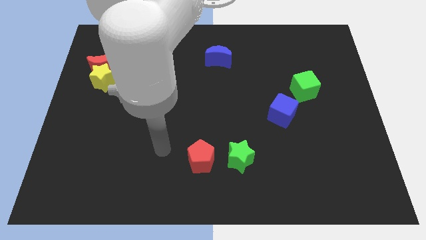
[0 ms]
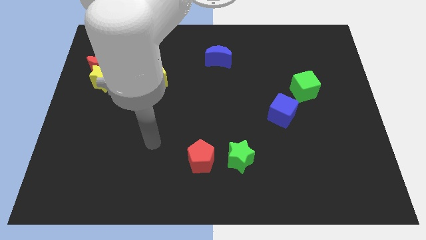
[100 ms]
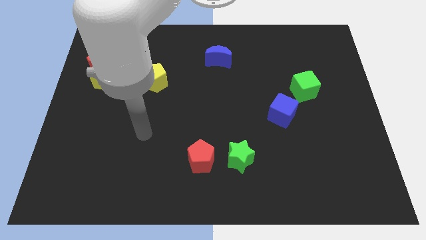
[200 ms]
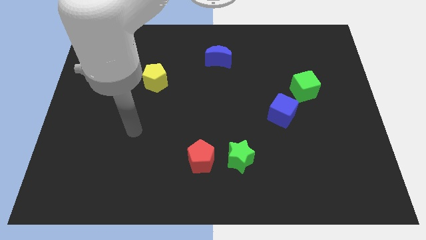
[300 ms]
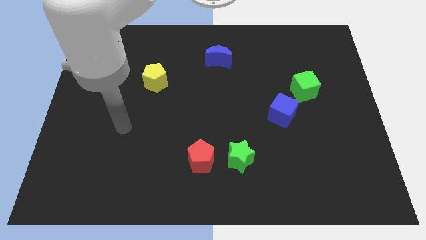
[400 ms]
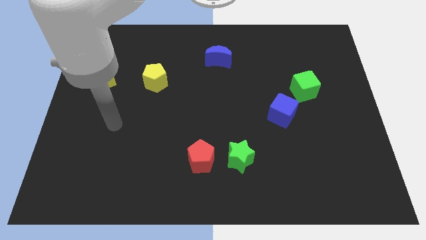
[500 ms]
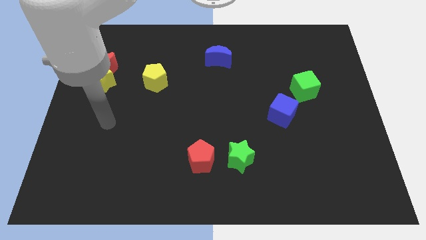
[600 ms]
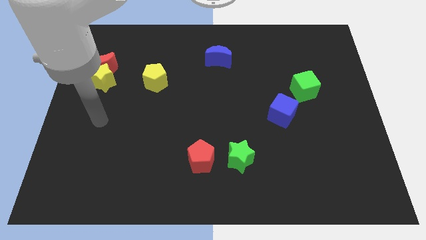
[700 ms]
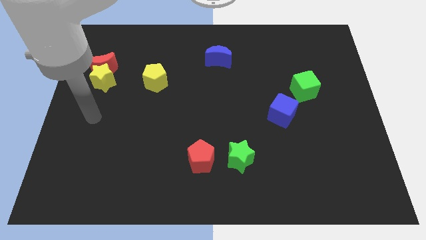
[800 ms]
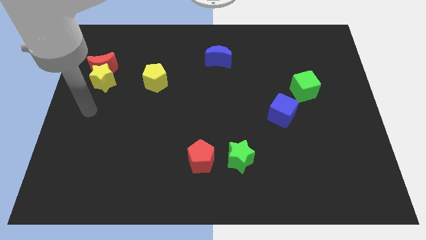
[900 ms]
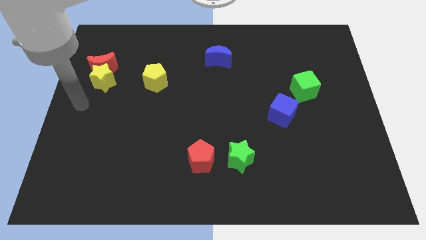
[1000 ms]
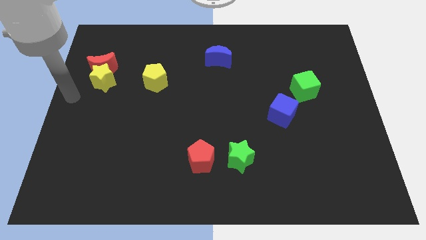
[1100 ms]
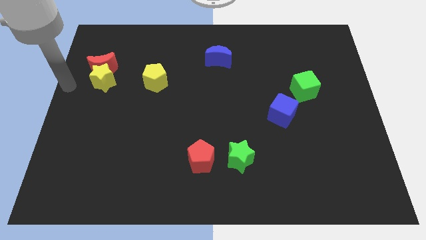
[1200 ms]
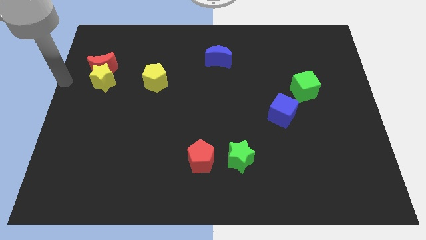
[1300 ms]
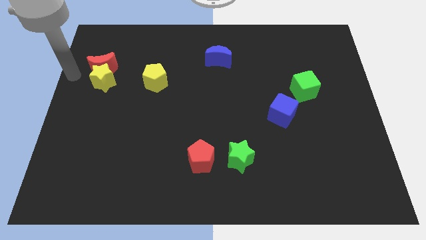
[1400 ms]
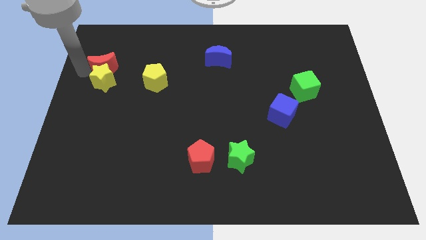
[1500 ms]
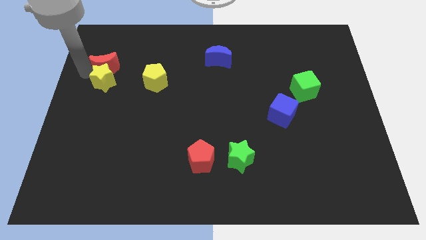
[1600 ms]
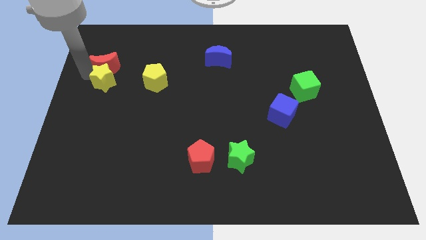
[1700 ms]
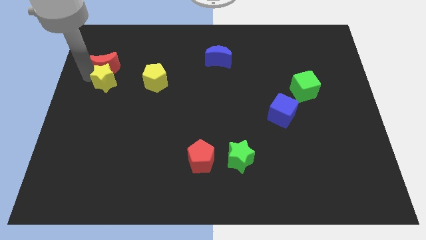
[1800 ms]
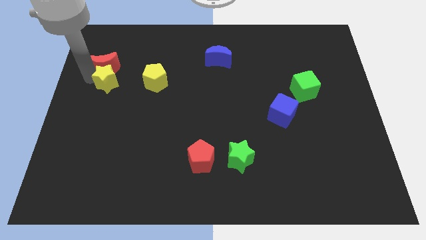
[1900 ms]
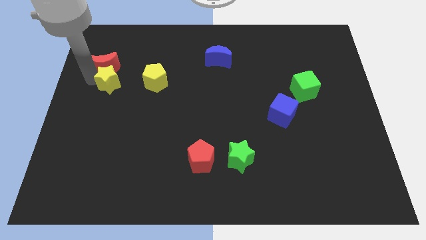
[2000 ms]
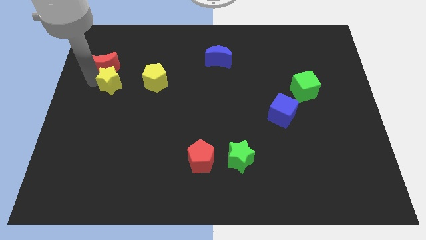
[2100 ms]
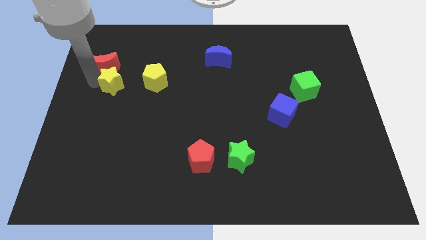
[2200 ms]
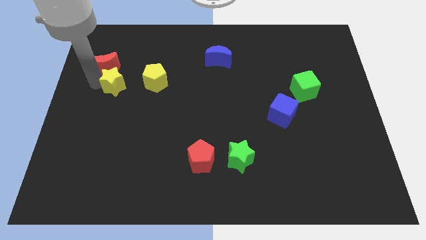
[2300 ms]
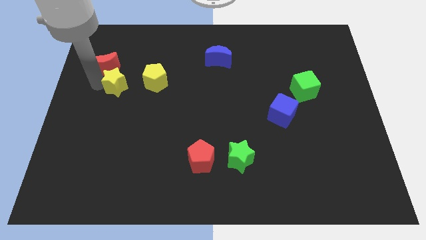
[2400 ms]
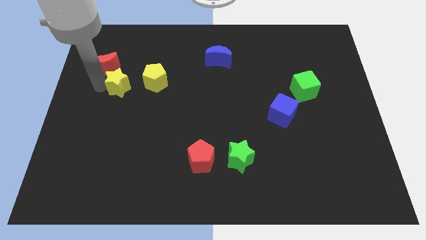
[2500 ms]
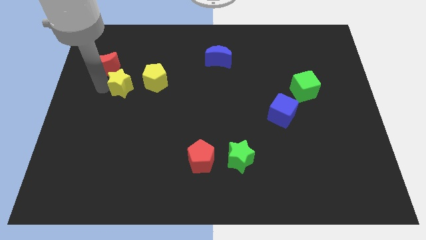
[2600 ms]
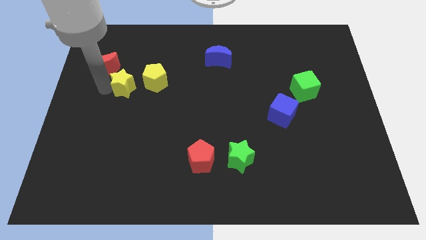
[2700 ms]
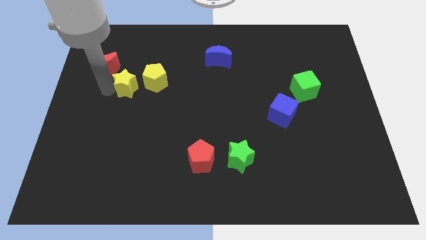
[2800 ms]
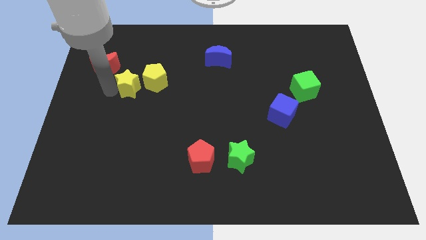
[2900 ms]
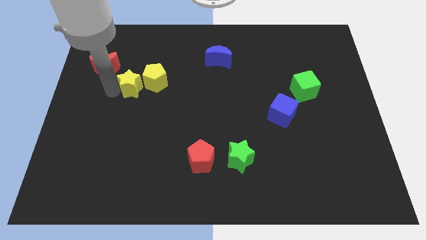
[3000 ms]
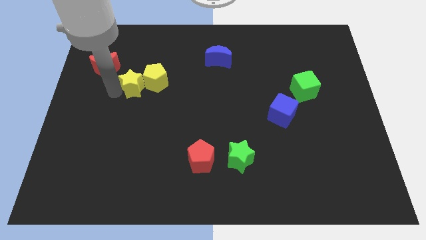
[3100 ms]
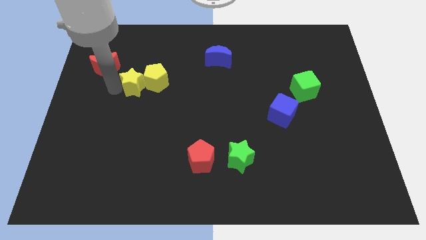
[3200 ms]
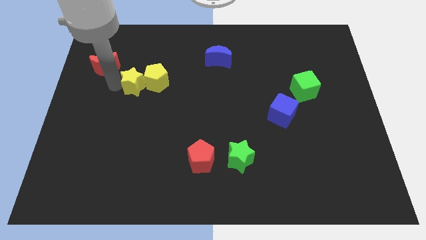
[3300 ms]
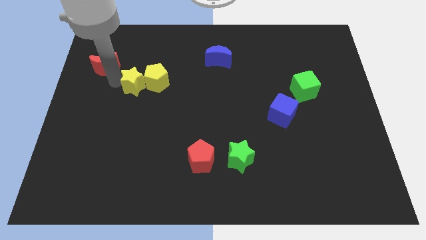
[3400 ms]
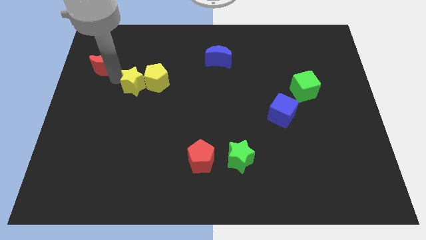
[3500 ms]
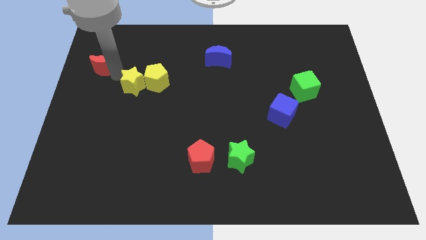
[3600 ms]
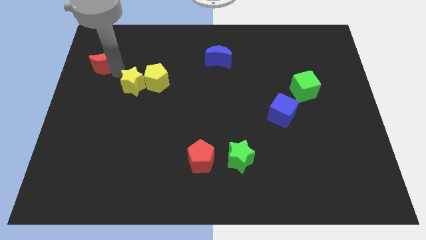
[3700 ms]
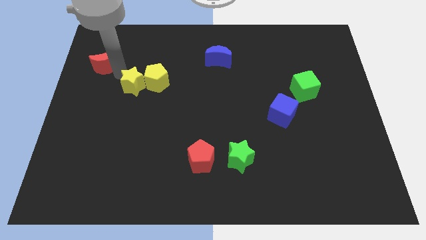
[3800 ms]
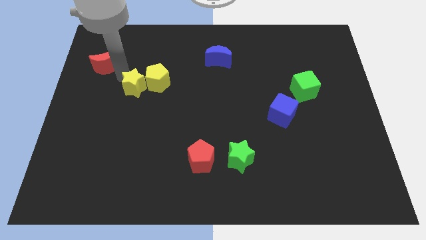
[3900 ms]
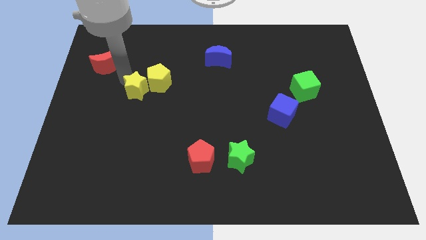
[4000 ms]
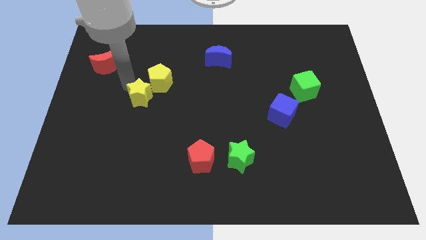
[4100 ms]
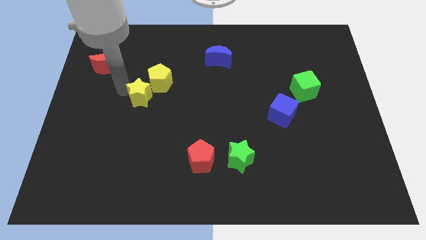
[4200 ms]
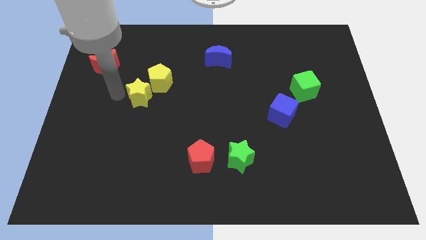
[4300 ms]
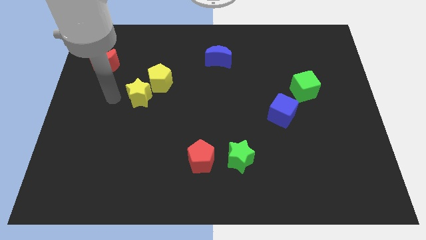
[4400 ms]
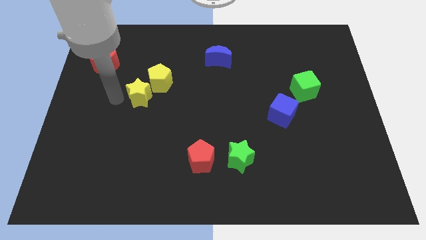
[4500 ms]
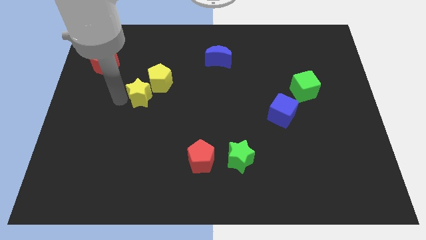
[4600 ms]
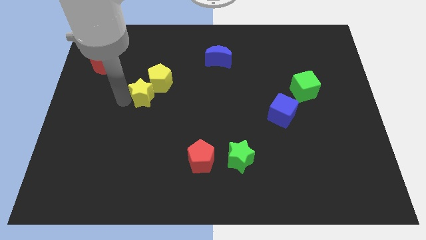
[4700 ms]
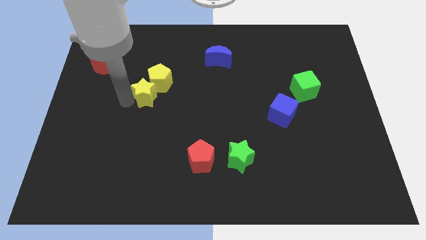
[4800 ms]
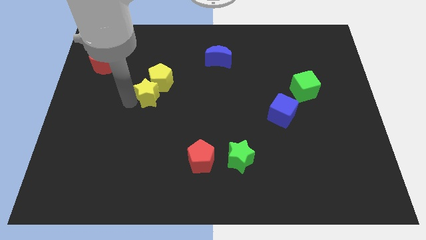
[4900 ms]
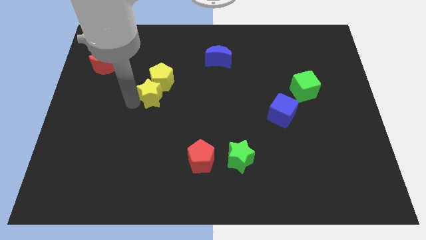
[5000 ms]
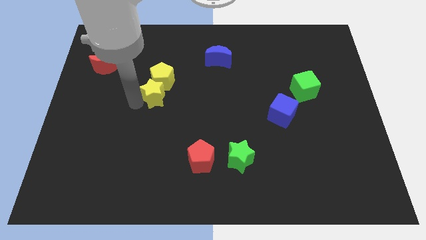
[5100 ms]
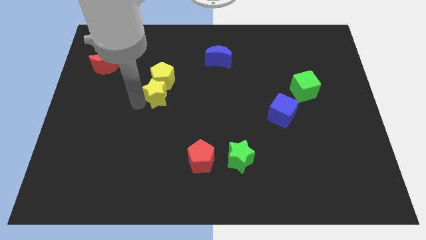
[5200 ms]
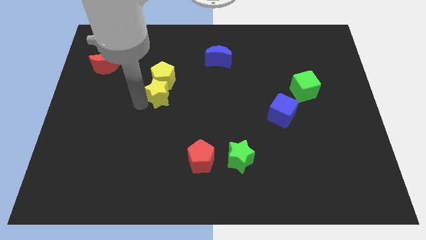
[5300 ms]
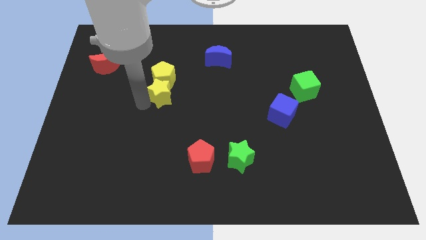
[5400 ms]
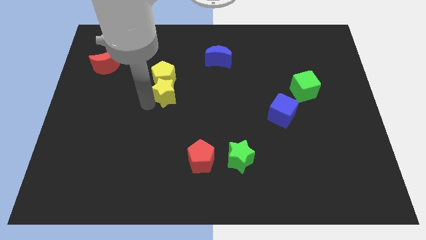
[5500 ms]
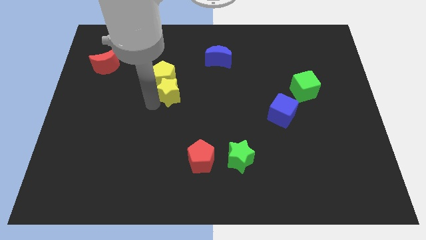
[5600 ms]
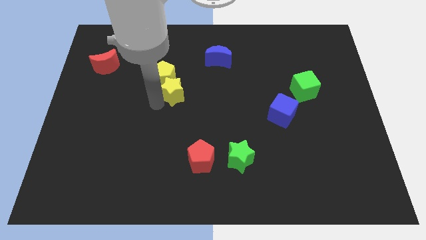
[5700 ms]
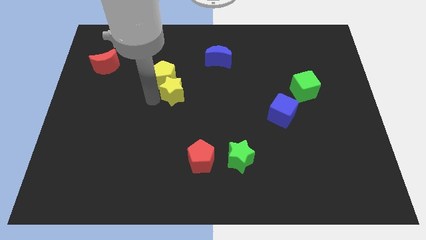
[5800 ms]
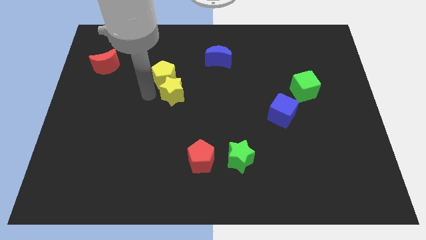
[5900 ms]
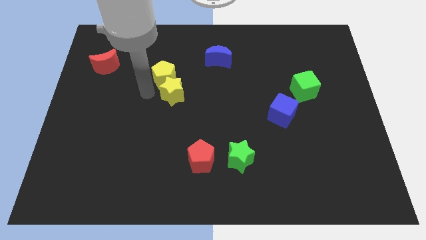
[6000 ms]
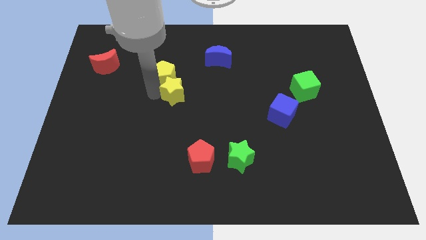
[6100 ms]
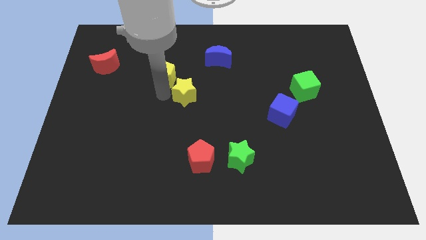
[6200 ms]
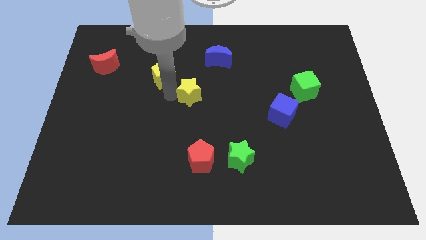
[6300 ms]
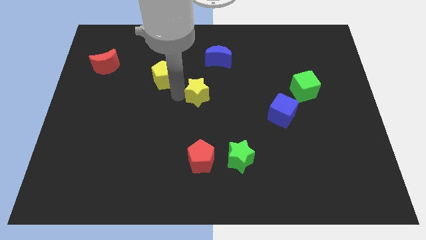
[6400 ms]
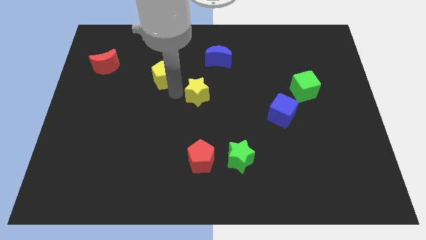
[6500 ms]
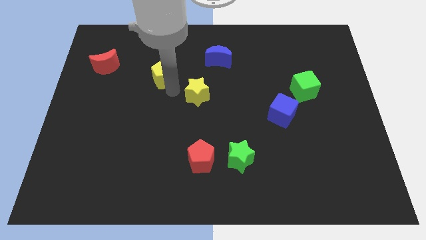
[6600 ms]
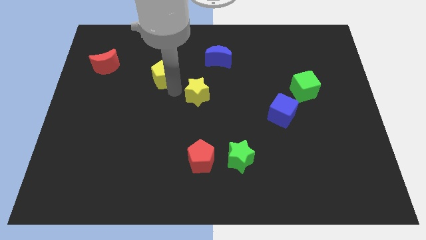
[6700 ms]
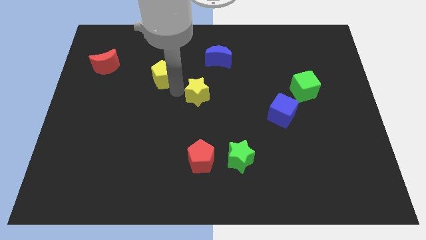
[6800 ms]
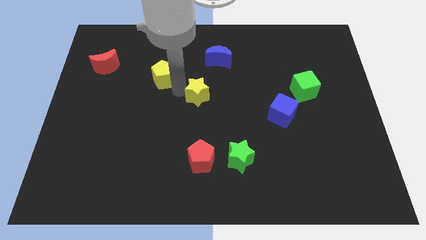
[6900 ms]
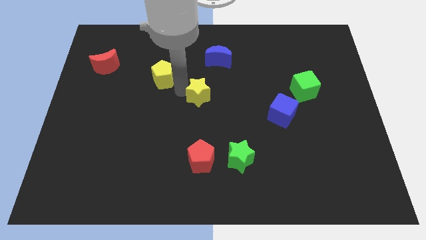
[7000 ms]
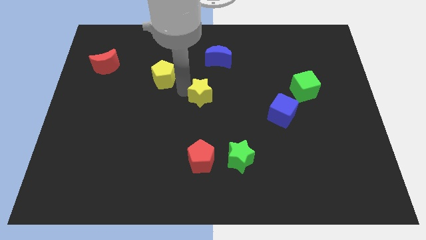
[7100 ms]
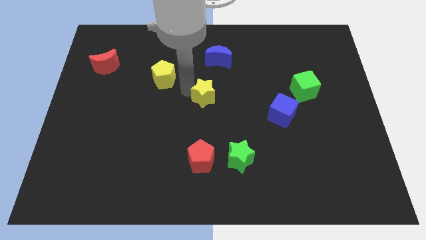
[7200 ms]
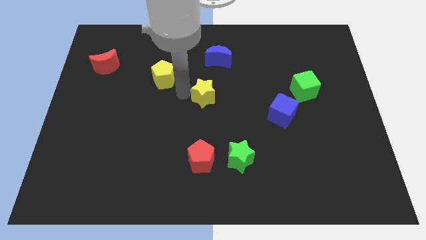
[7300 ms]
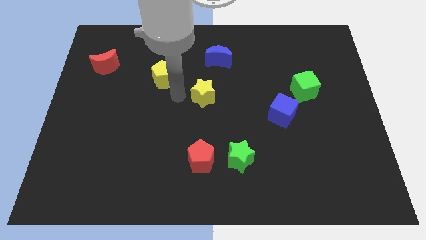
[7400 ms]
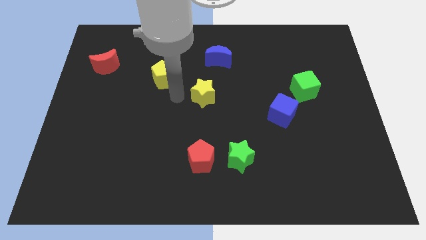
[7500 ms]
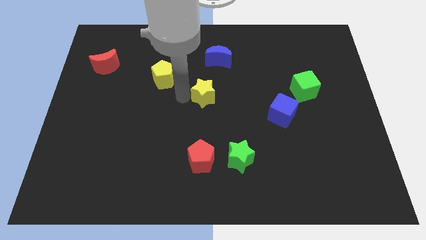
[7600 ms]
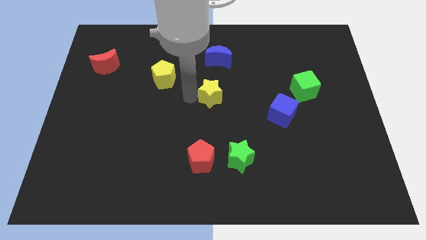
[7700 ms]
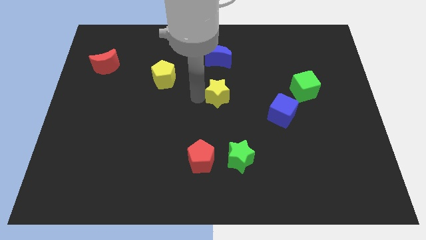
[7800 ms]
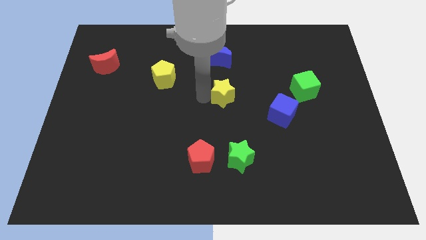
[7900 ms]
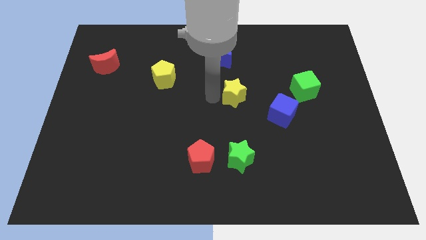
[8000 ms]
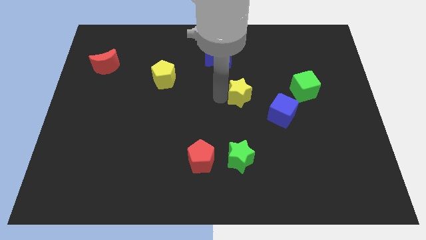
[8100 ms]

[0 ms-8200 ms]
push the yellow star diagonally up and to the left of the blue cube
